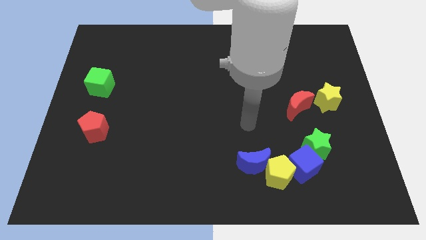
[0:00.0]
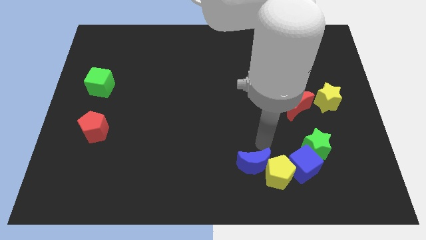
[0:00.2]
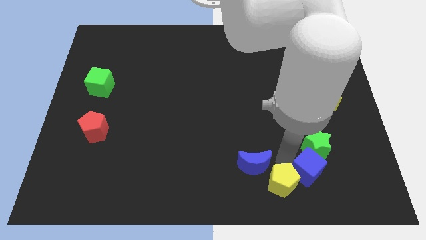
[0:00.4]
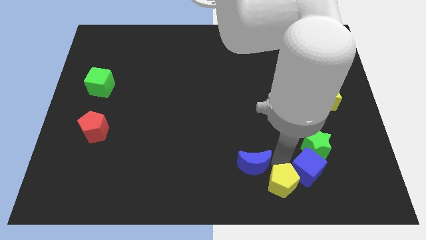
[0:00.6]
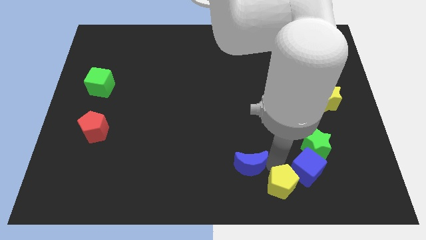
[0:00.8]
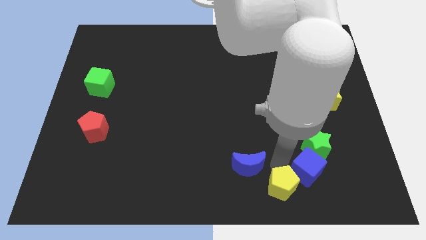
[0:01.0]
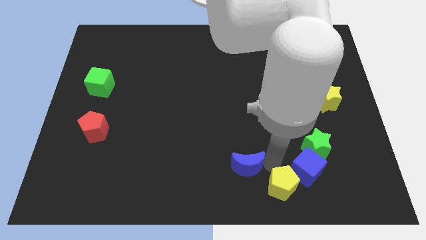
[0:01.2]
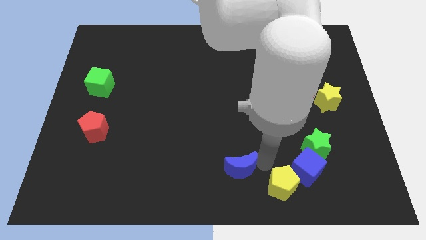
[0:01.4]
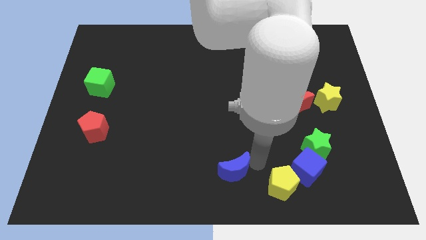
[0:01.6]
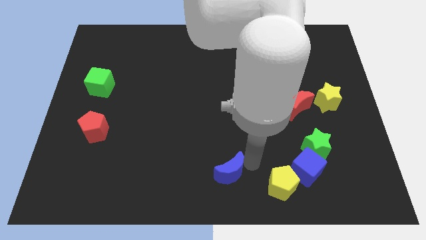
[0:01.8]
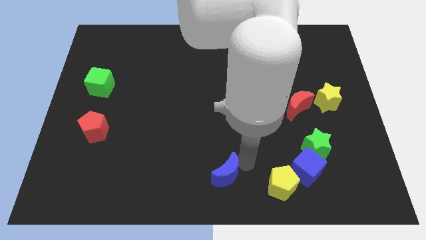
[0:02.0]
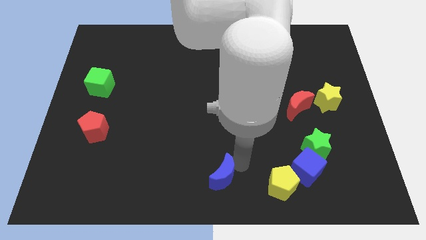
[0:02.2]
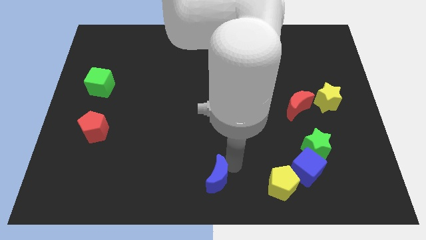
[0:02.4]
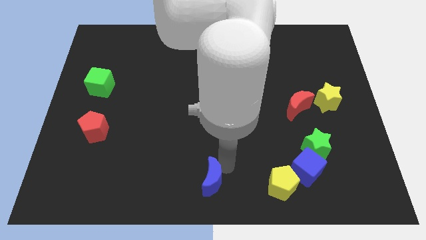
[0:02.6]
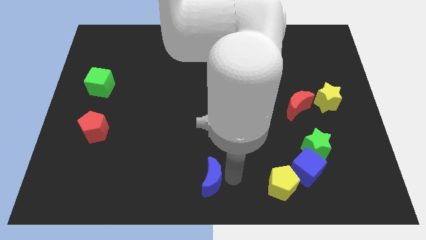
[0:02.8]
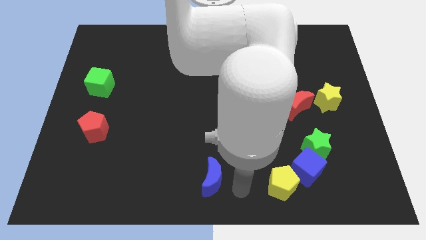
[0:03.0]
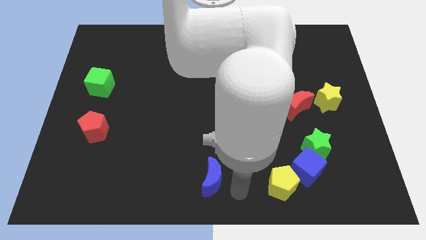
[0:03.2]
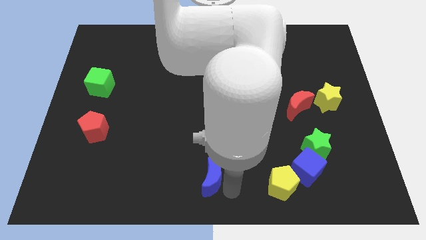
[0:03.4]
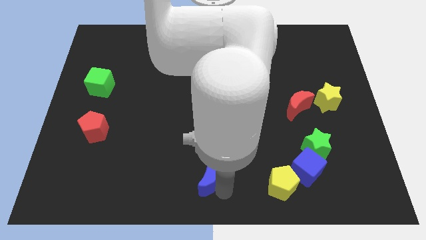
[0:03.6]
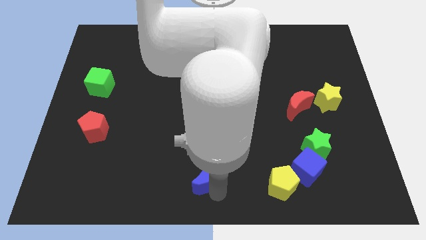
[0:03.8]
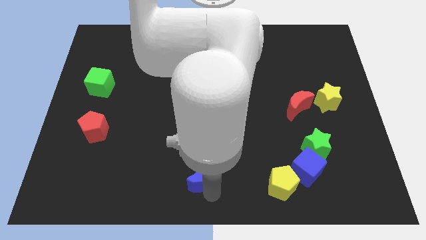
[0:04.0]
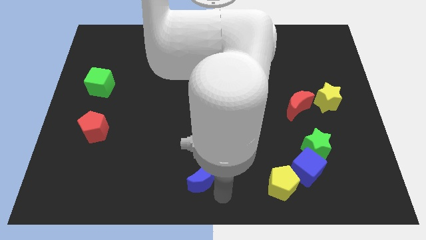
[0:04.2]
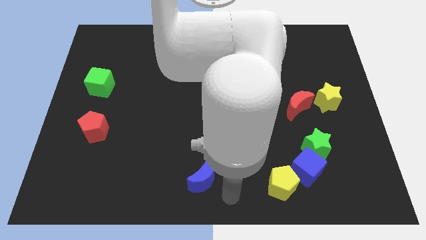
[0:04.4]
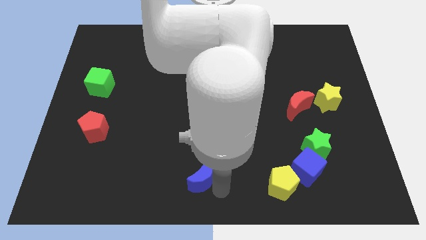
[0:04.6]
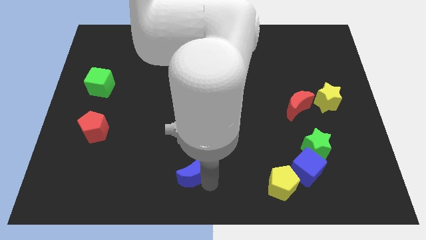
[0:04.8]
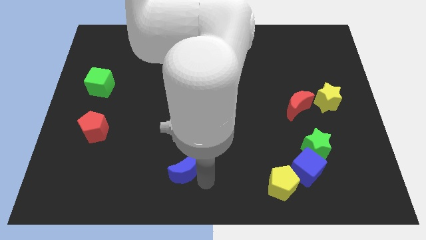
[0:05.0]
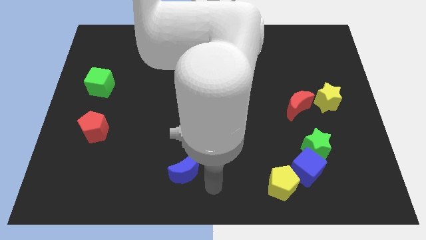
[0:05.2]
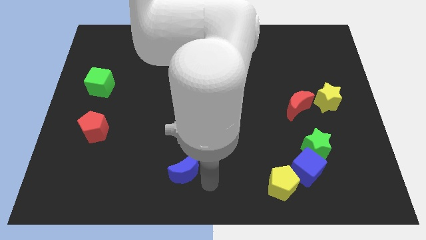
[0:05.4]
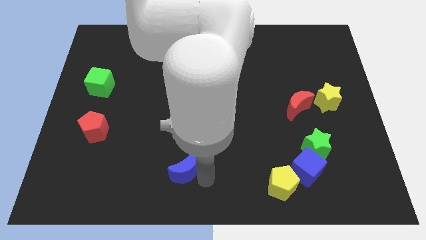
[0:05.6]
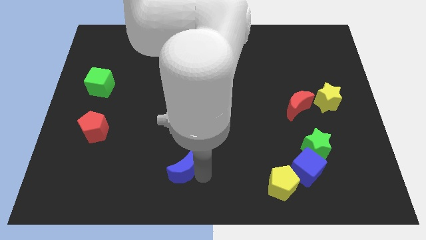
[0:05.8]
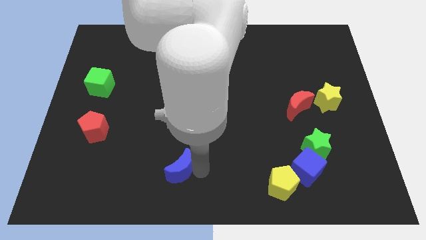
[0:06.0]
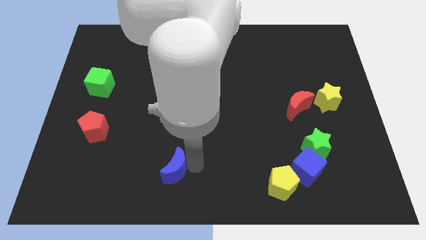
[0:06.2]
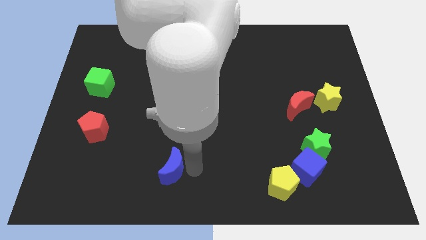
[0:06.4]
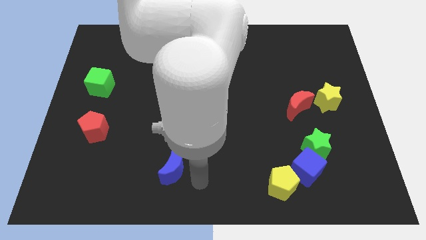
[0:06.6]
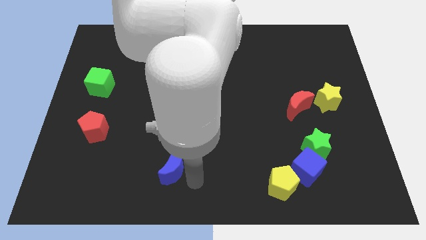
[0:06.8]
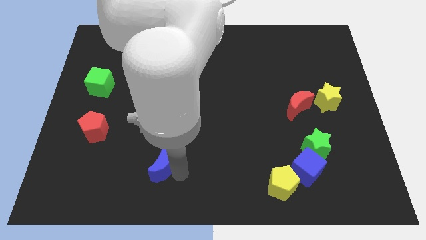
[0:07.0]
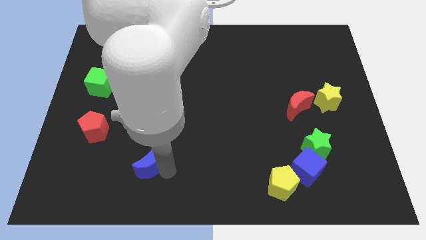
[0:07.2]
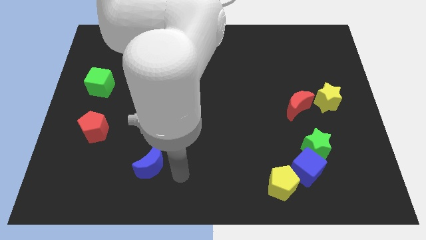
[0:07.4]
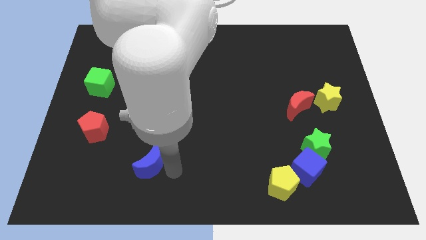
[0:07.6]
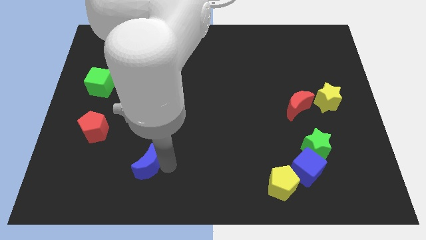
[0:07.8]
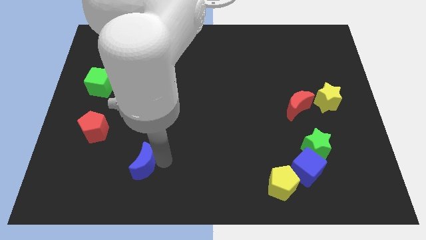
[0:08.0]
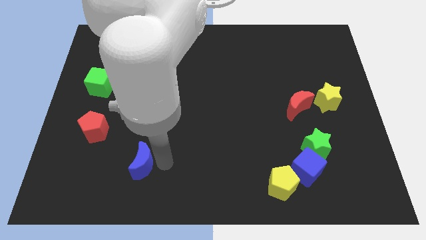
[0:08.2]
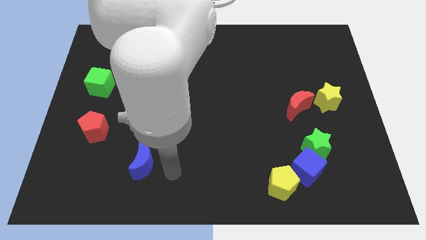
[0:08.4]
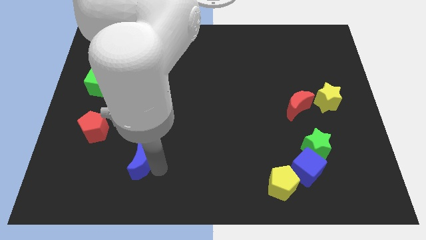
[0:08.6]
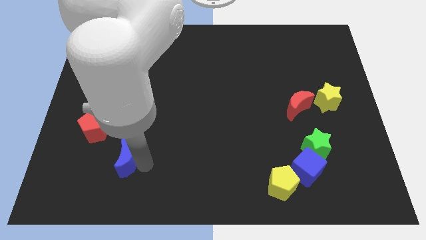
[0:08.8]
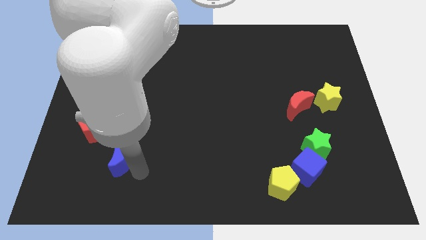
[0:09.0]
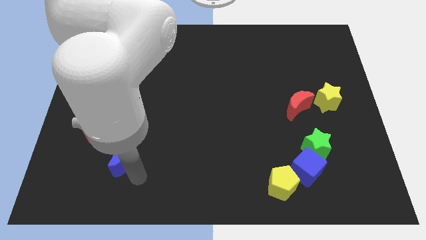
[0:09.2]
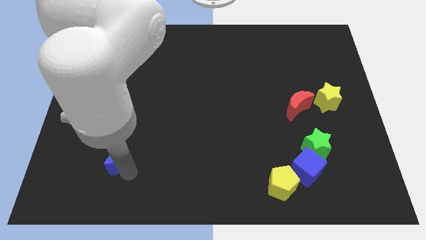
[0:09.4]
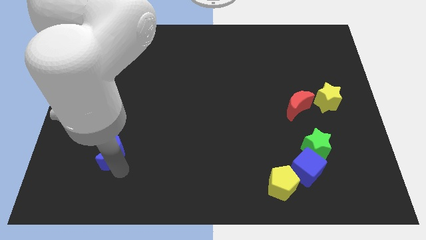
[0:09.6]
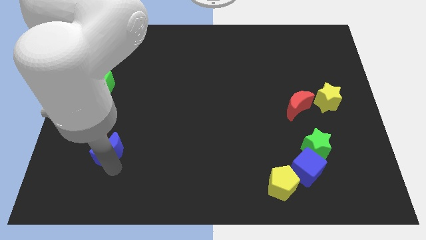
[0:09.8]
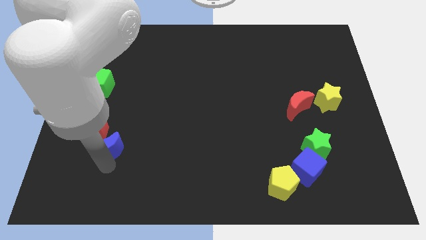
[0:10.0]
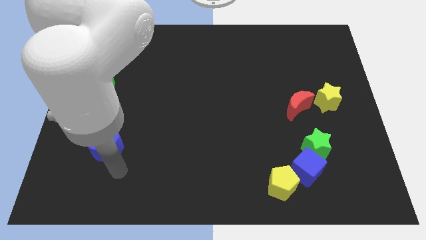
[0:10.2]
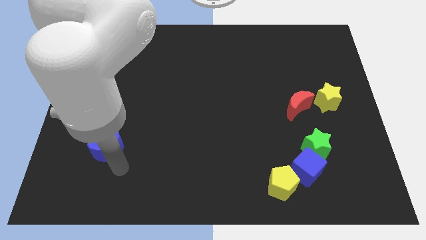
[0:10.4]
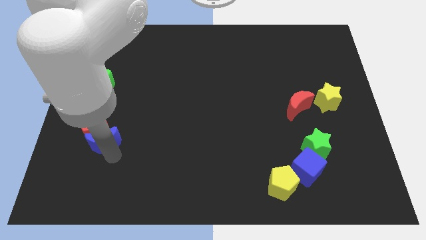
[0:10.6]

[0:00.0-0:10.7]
slide the blue moon next to the red pentagon

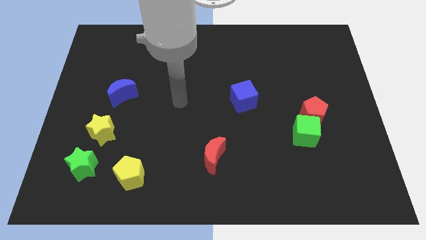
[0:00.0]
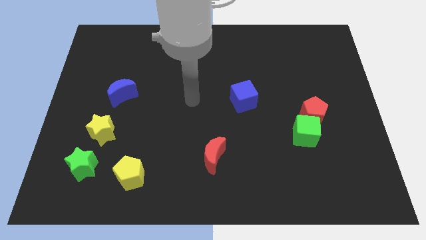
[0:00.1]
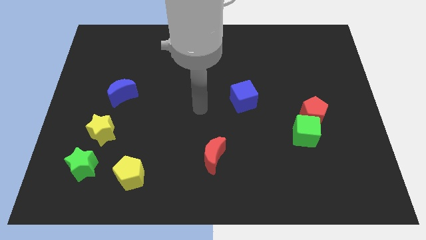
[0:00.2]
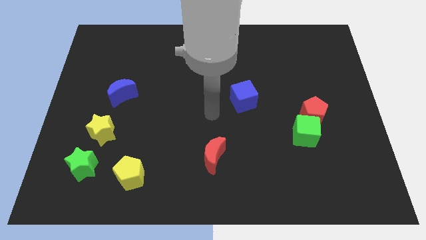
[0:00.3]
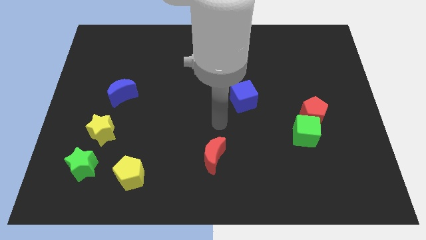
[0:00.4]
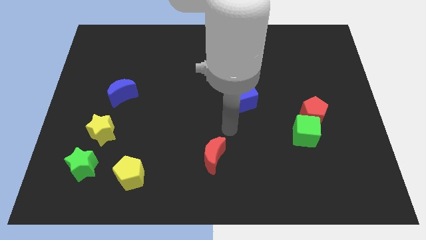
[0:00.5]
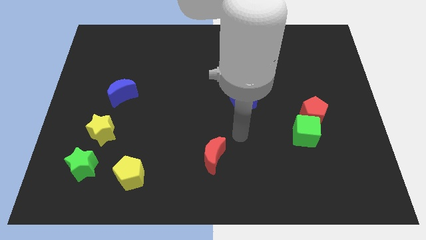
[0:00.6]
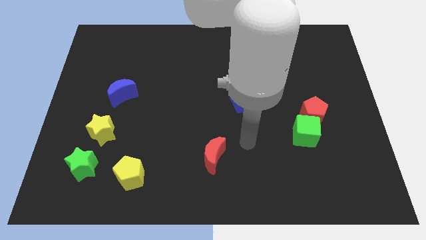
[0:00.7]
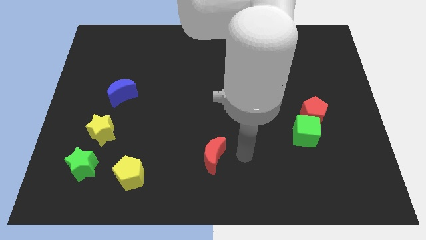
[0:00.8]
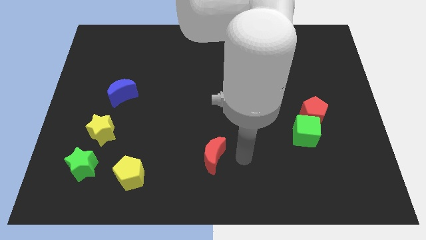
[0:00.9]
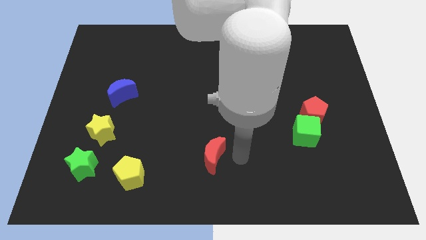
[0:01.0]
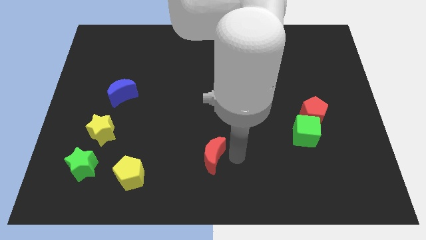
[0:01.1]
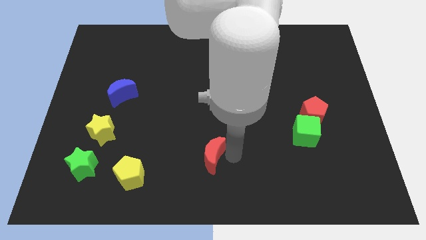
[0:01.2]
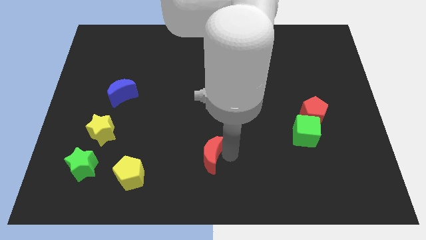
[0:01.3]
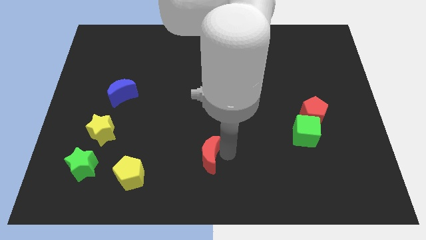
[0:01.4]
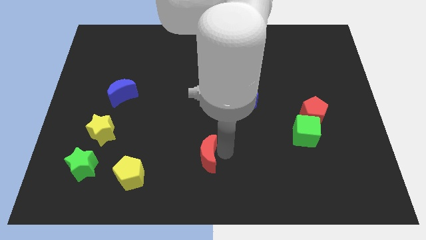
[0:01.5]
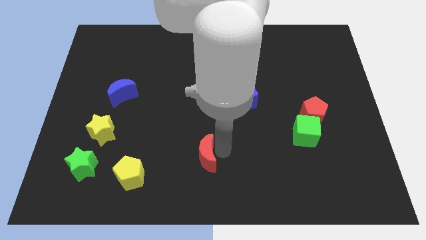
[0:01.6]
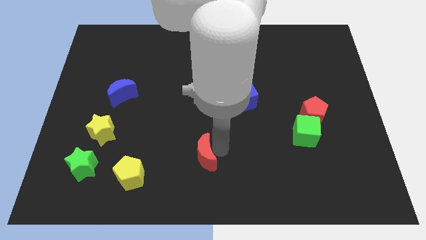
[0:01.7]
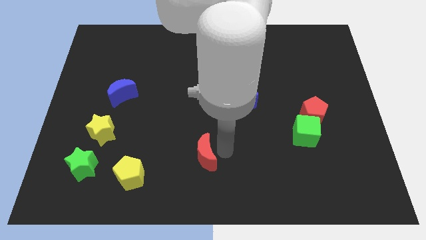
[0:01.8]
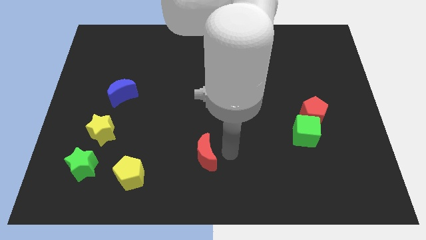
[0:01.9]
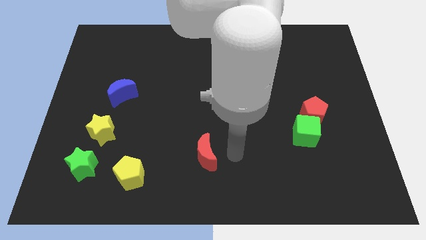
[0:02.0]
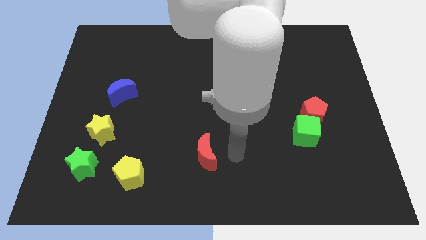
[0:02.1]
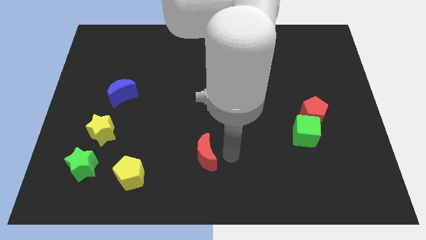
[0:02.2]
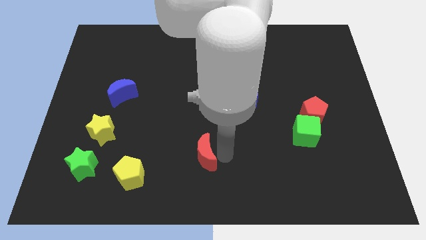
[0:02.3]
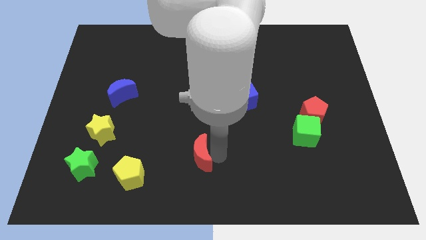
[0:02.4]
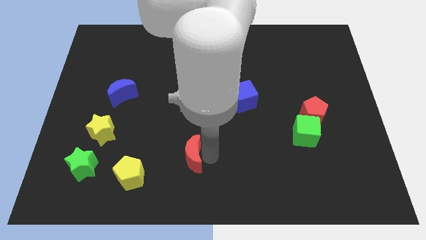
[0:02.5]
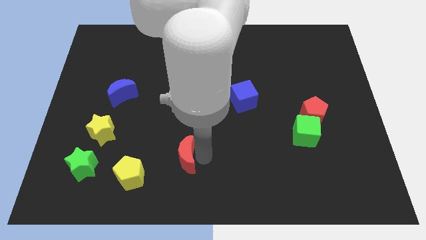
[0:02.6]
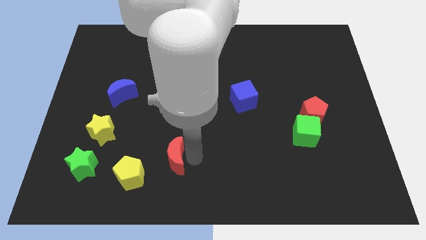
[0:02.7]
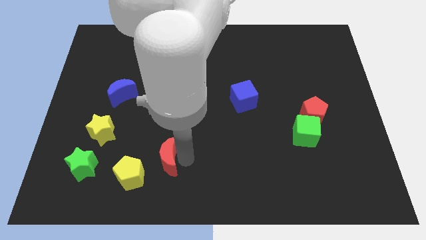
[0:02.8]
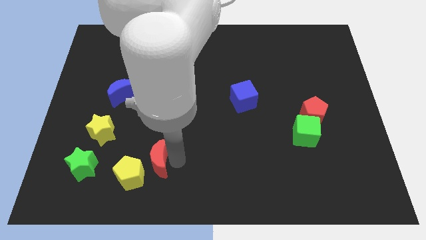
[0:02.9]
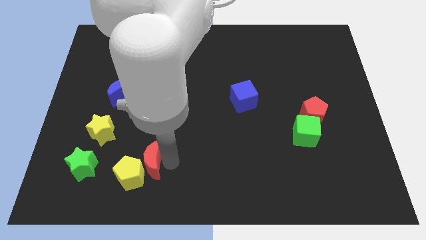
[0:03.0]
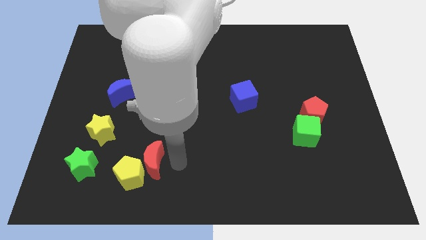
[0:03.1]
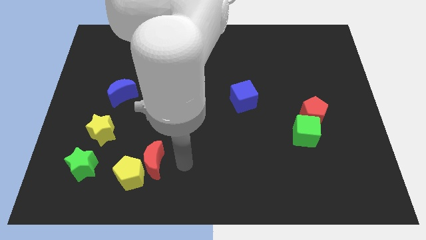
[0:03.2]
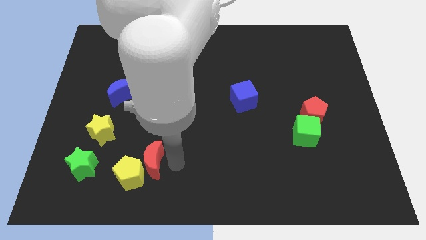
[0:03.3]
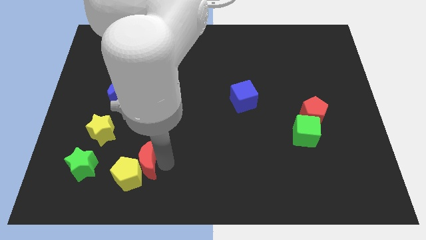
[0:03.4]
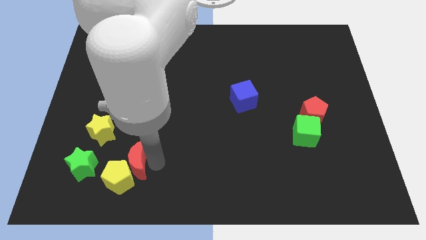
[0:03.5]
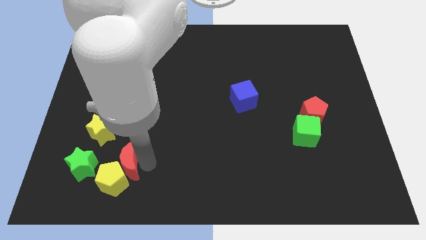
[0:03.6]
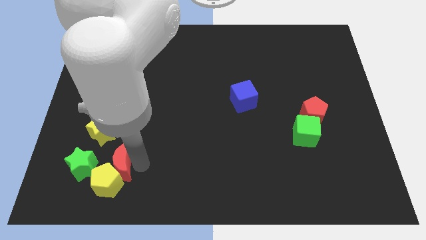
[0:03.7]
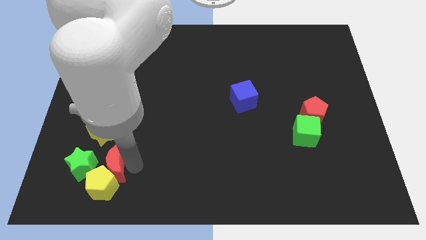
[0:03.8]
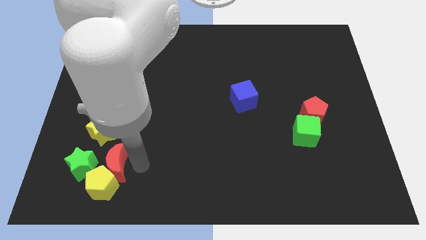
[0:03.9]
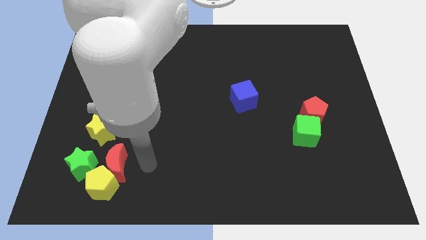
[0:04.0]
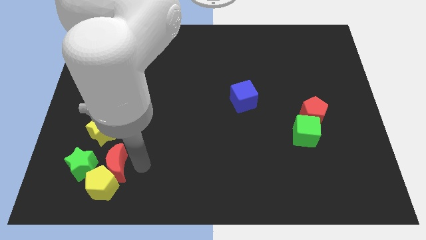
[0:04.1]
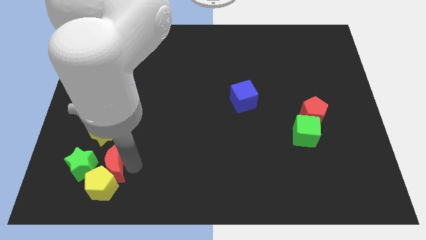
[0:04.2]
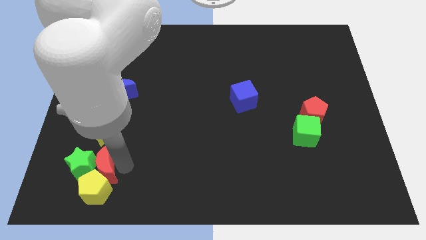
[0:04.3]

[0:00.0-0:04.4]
push the red moon close to the green star
